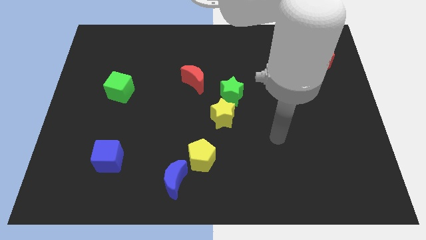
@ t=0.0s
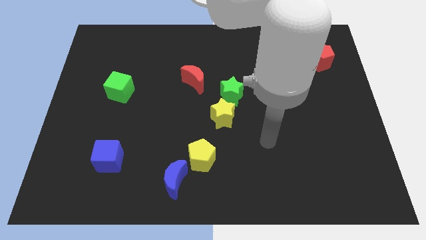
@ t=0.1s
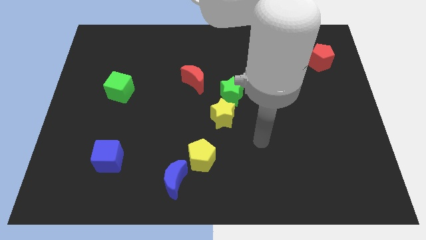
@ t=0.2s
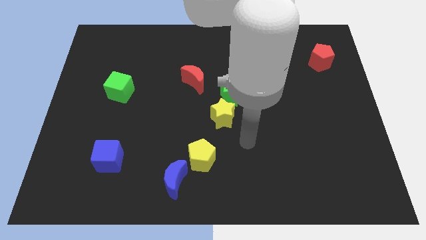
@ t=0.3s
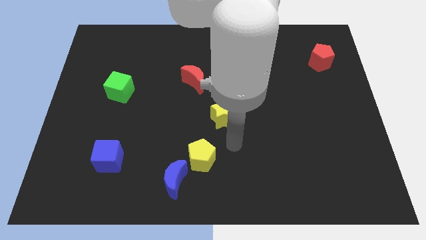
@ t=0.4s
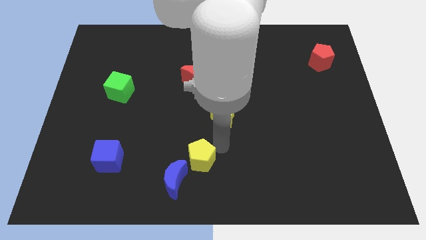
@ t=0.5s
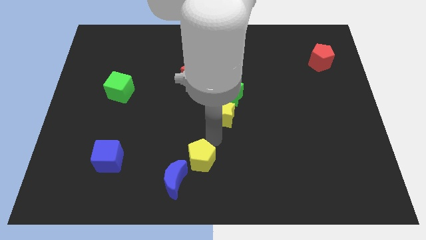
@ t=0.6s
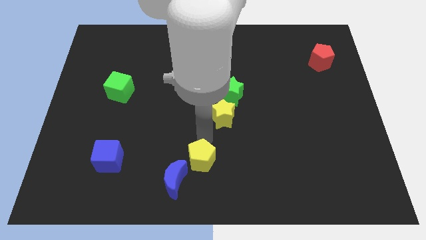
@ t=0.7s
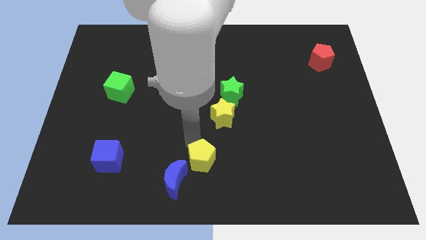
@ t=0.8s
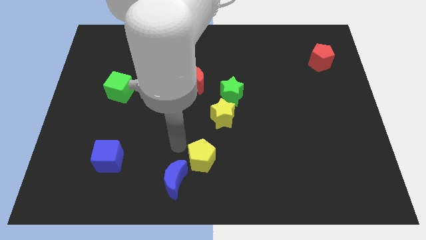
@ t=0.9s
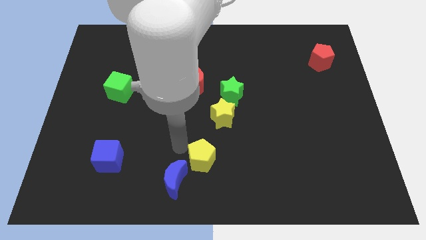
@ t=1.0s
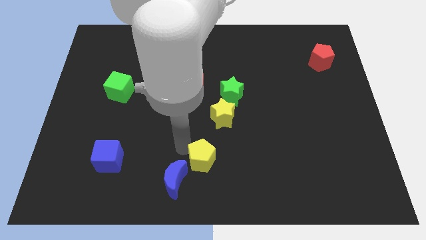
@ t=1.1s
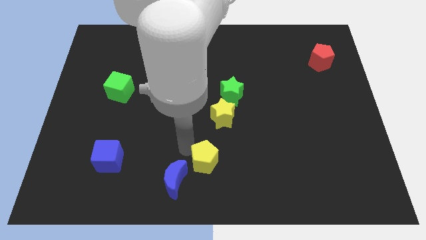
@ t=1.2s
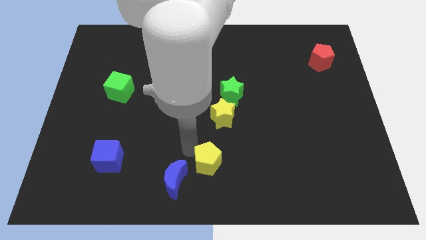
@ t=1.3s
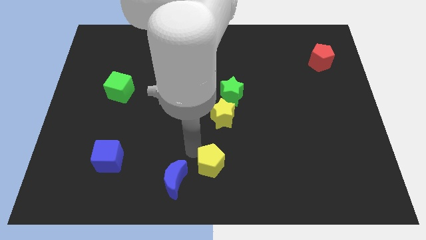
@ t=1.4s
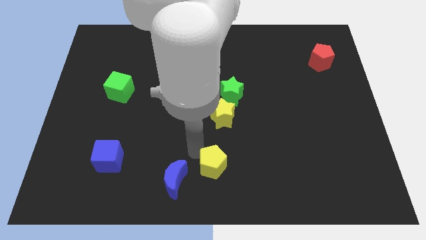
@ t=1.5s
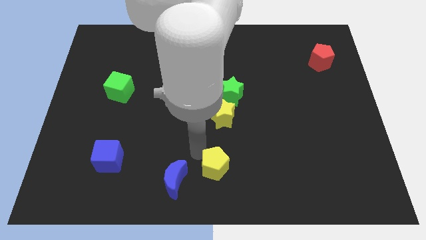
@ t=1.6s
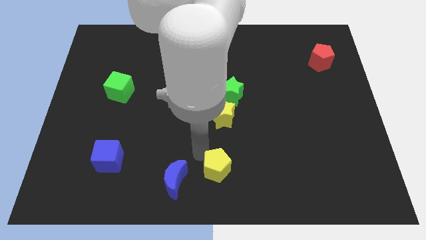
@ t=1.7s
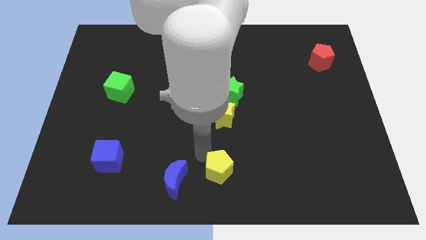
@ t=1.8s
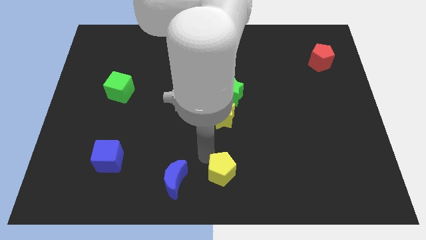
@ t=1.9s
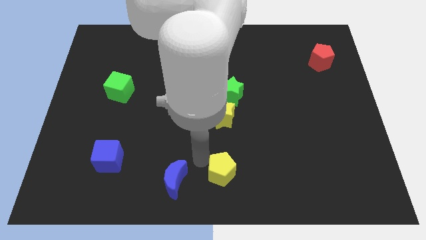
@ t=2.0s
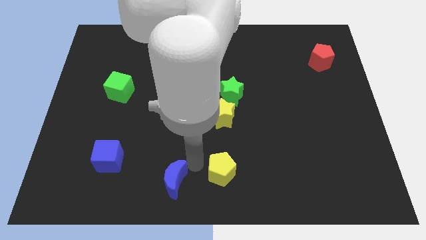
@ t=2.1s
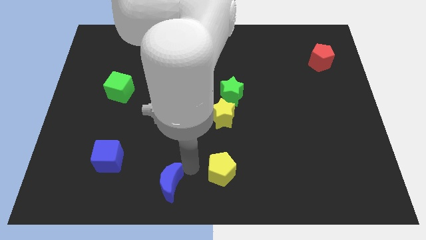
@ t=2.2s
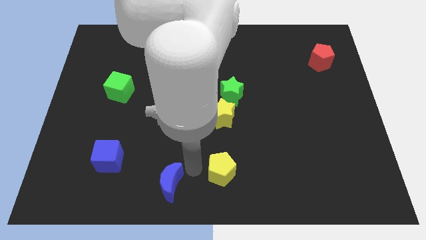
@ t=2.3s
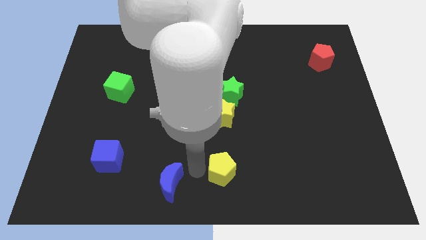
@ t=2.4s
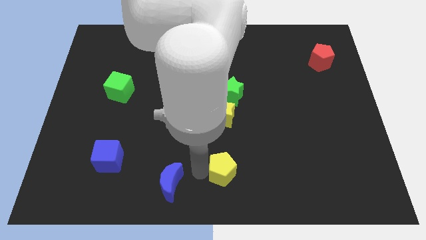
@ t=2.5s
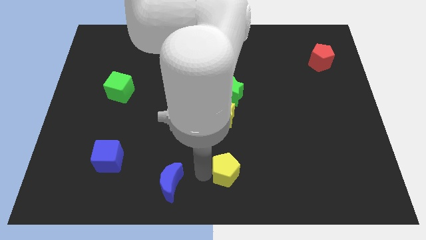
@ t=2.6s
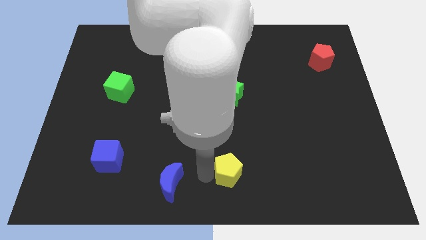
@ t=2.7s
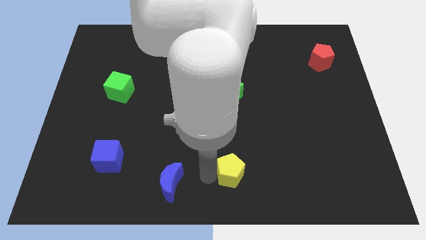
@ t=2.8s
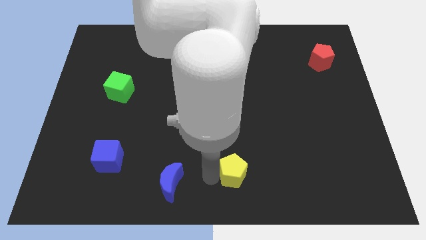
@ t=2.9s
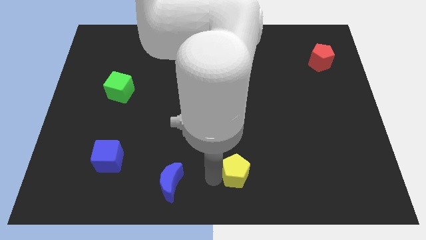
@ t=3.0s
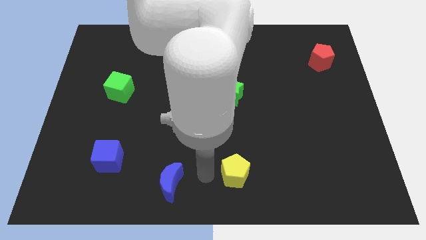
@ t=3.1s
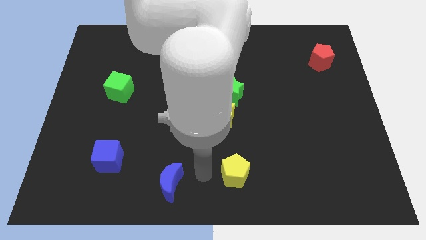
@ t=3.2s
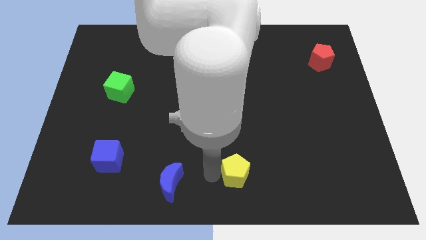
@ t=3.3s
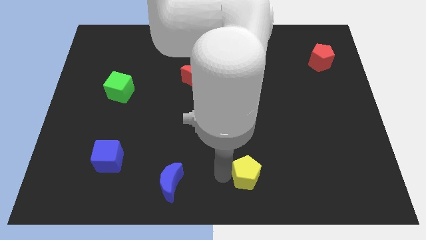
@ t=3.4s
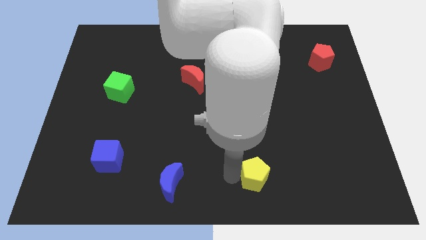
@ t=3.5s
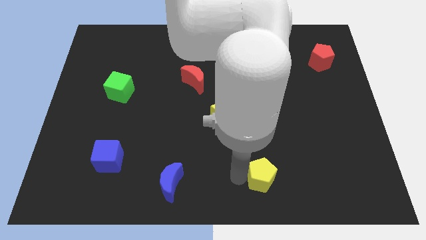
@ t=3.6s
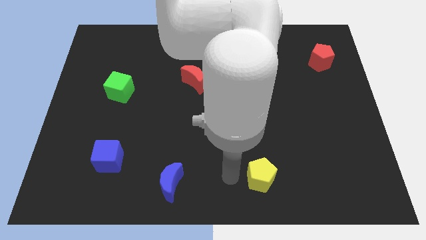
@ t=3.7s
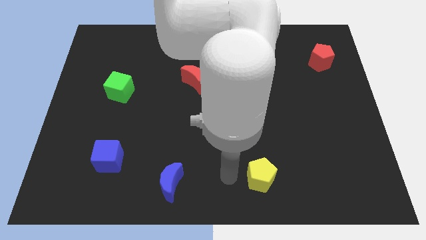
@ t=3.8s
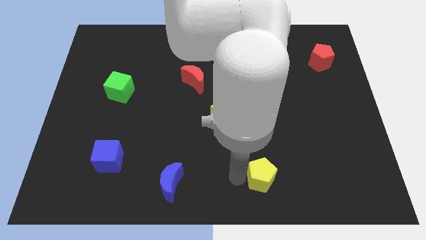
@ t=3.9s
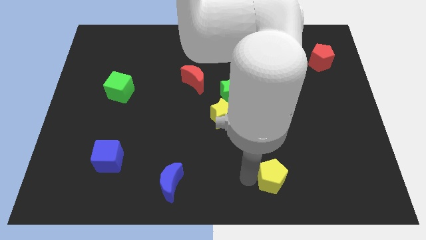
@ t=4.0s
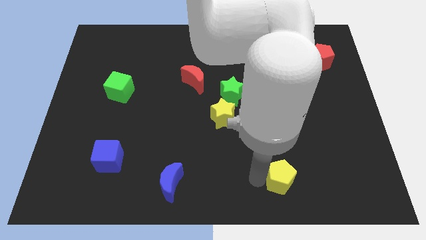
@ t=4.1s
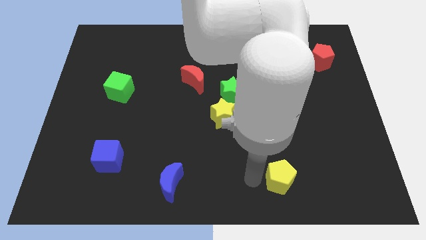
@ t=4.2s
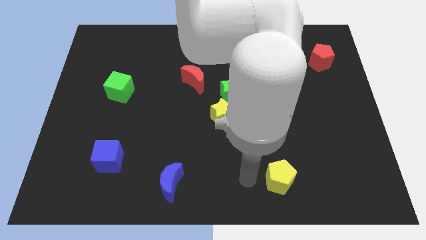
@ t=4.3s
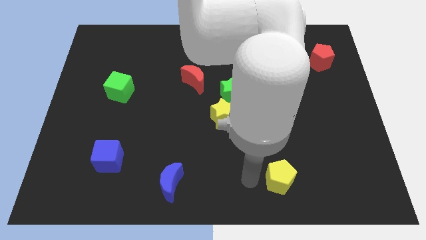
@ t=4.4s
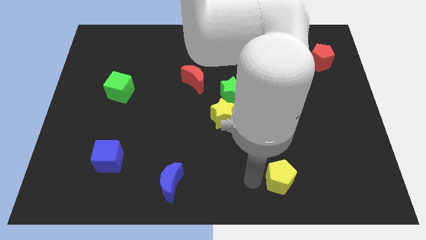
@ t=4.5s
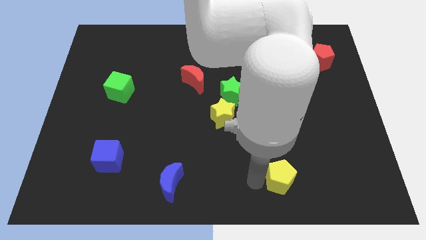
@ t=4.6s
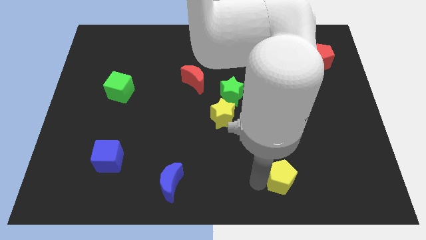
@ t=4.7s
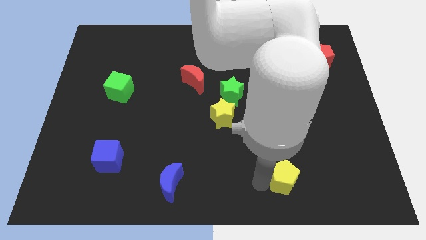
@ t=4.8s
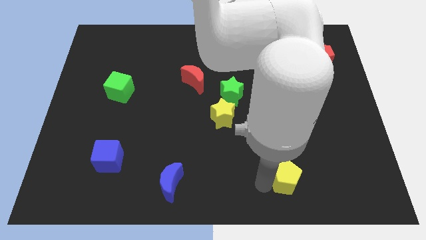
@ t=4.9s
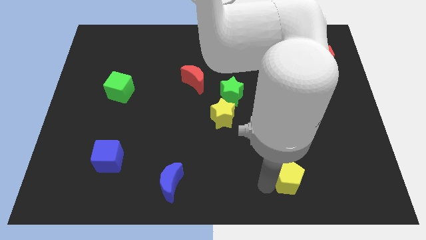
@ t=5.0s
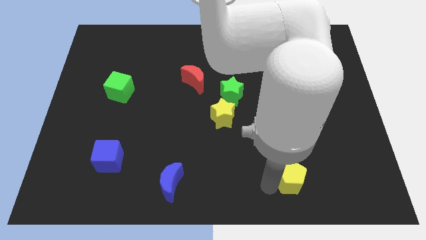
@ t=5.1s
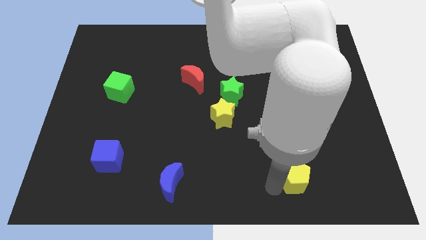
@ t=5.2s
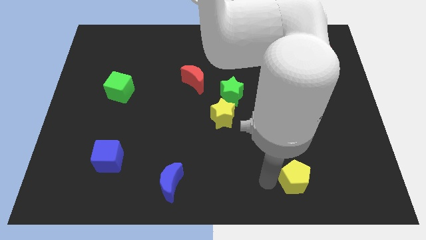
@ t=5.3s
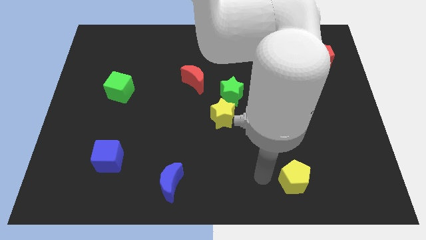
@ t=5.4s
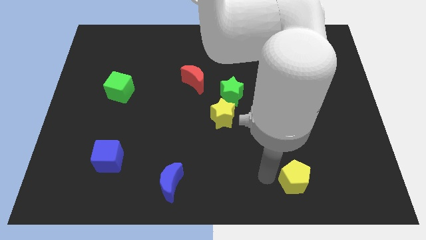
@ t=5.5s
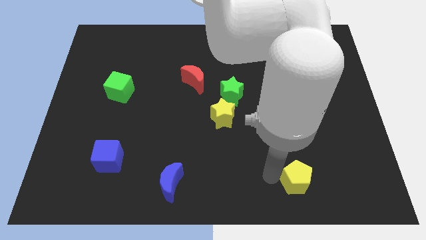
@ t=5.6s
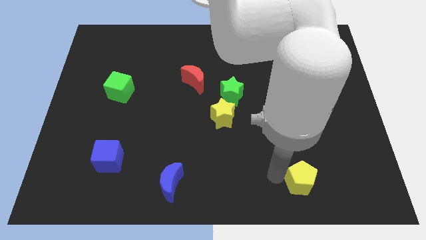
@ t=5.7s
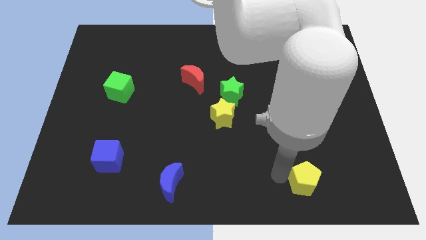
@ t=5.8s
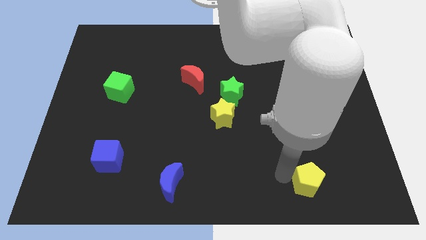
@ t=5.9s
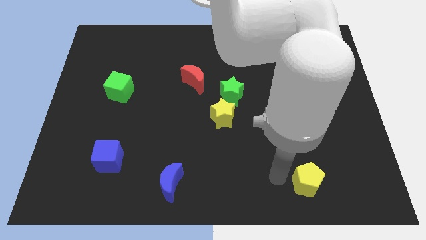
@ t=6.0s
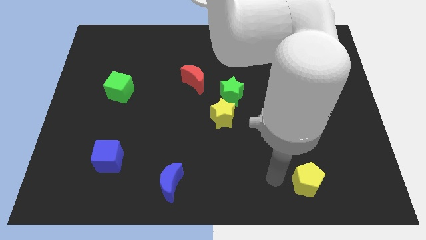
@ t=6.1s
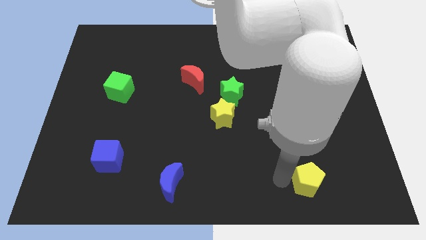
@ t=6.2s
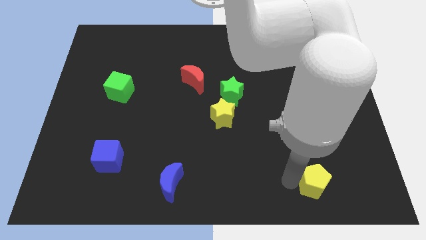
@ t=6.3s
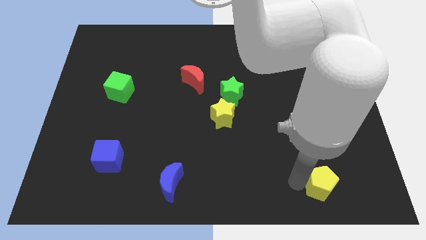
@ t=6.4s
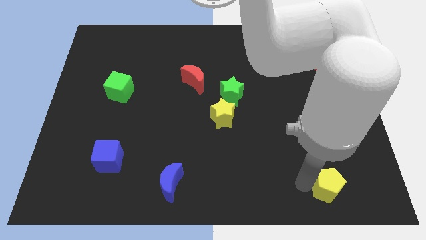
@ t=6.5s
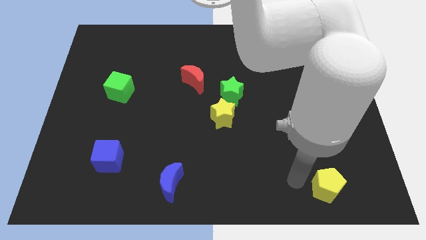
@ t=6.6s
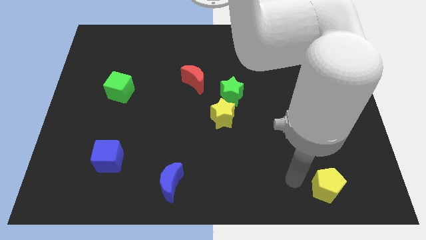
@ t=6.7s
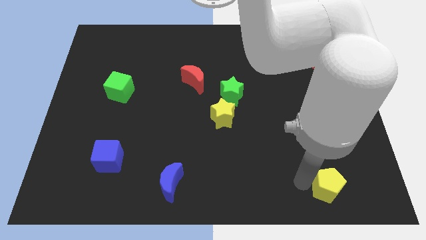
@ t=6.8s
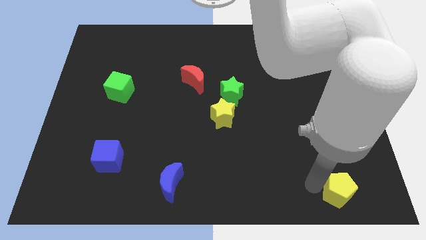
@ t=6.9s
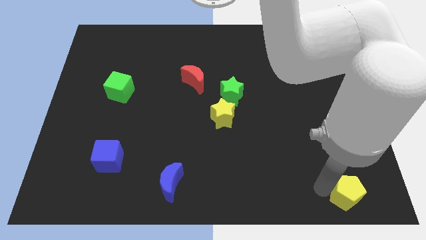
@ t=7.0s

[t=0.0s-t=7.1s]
slide the yellow pentagon to the bottom right of the board

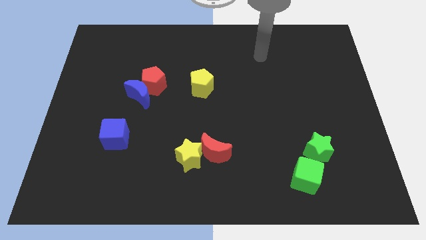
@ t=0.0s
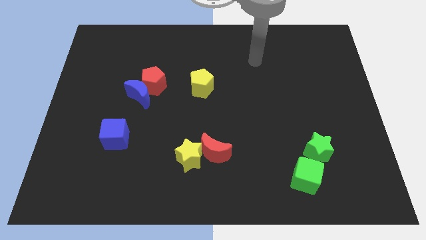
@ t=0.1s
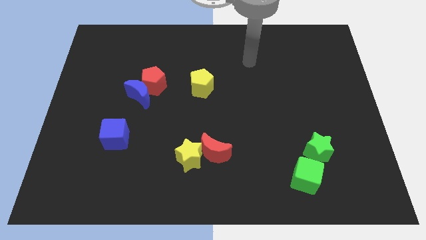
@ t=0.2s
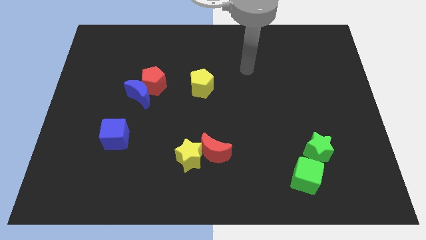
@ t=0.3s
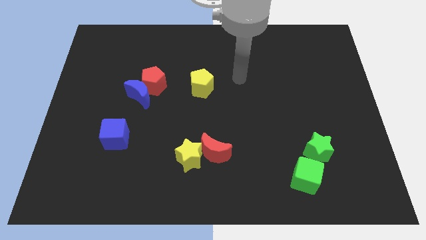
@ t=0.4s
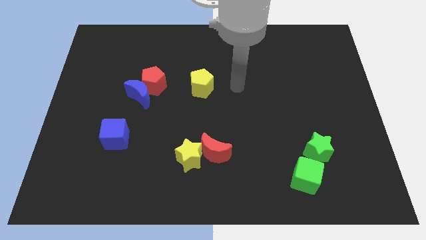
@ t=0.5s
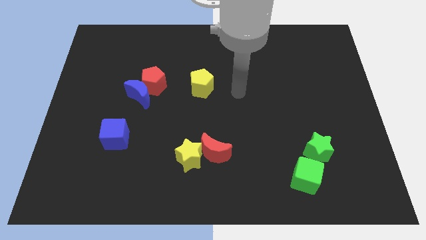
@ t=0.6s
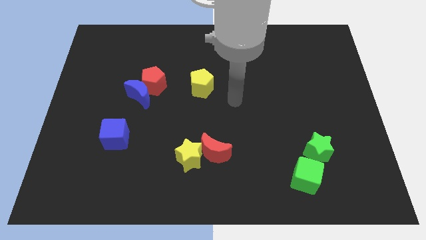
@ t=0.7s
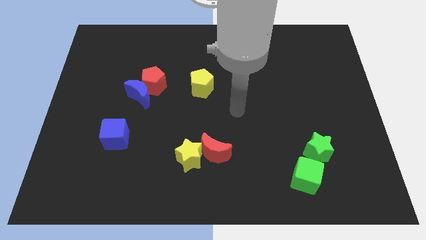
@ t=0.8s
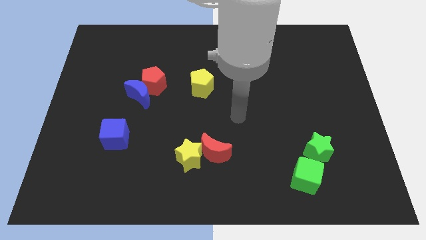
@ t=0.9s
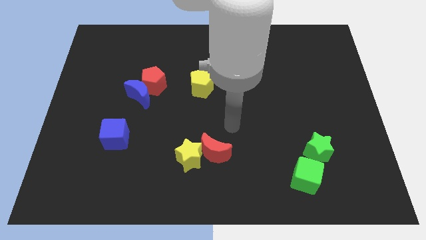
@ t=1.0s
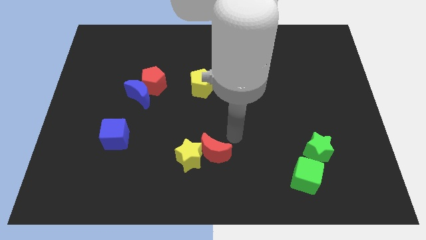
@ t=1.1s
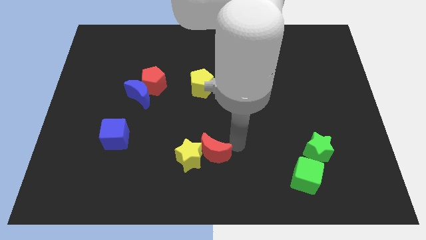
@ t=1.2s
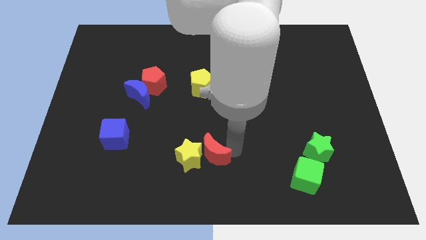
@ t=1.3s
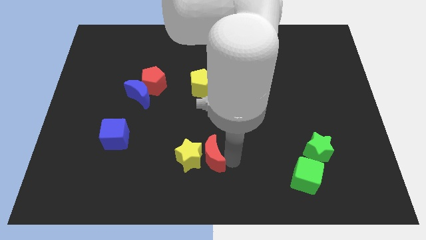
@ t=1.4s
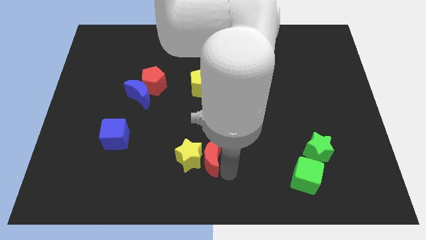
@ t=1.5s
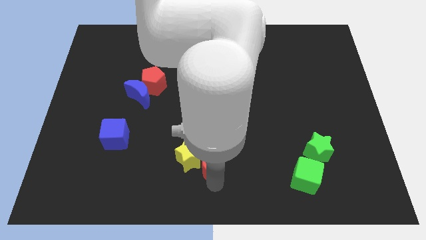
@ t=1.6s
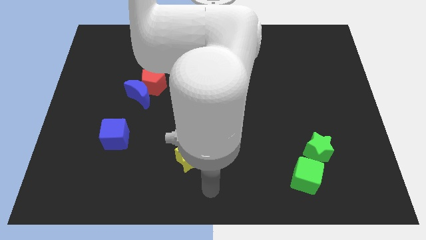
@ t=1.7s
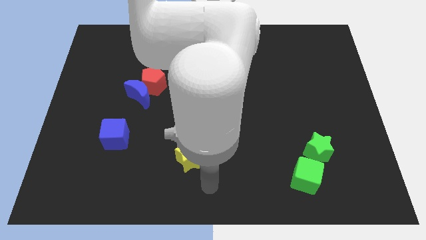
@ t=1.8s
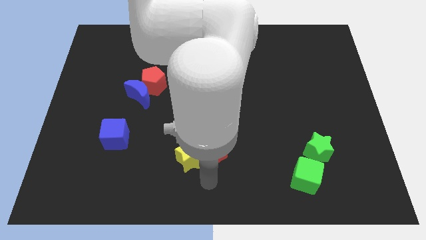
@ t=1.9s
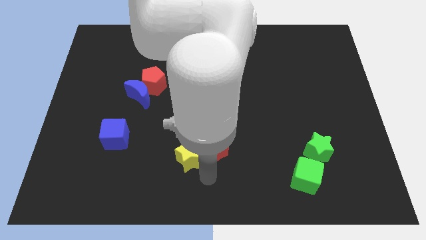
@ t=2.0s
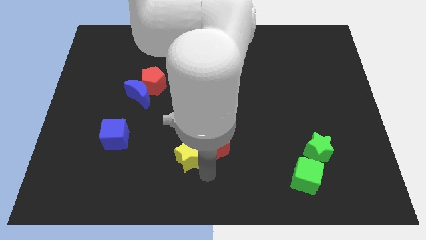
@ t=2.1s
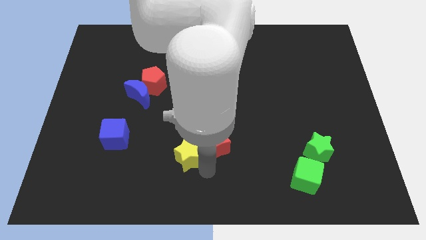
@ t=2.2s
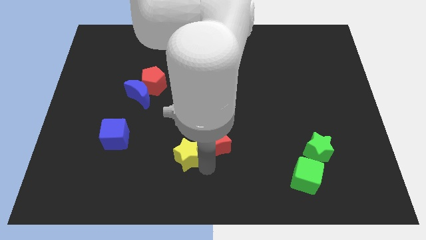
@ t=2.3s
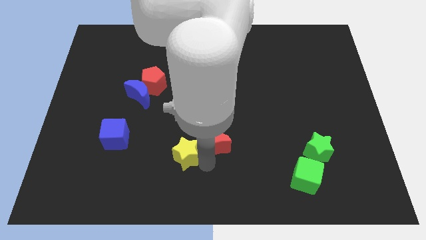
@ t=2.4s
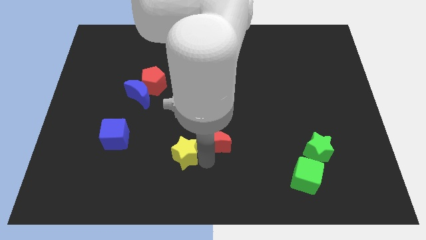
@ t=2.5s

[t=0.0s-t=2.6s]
put the red moon to the middle
